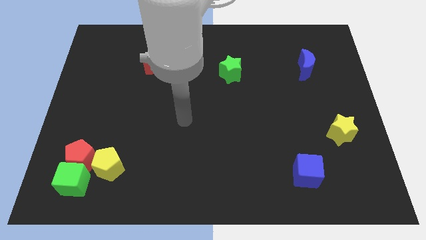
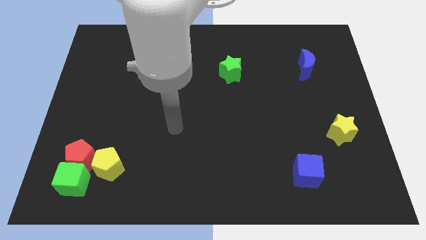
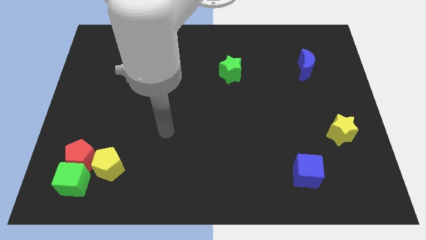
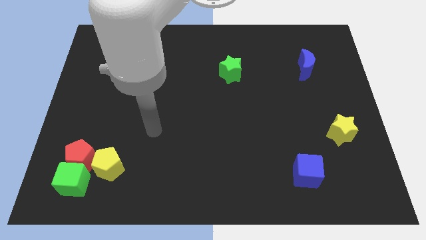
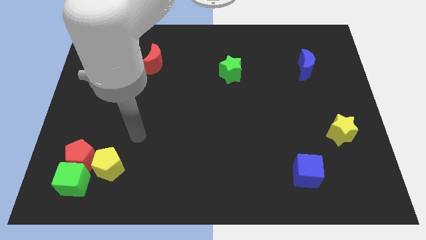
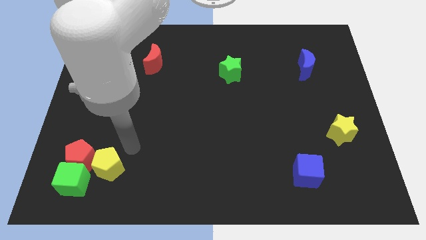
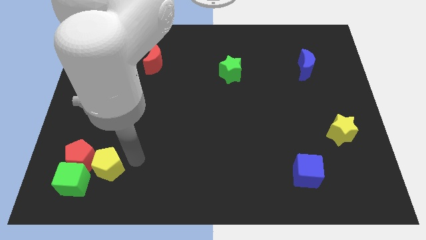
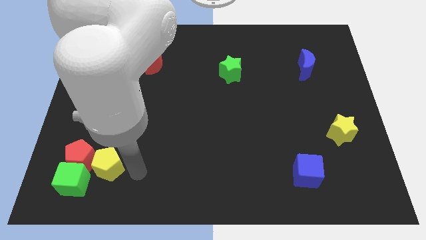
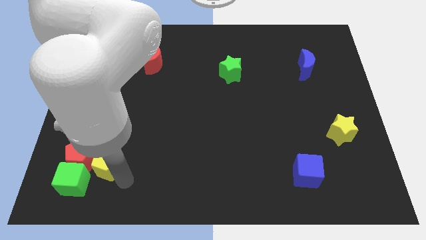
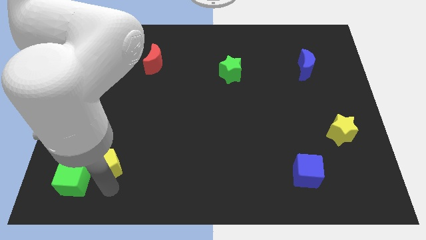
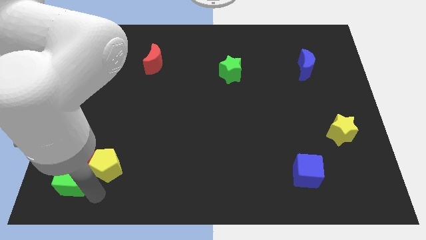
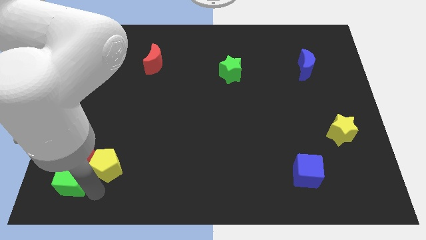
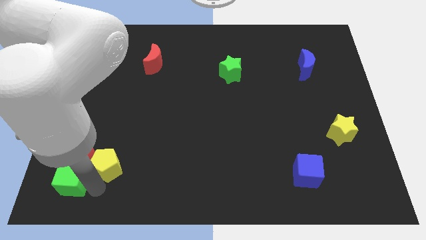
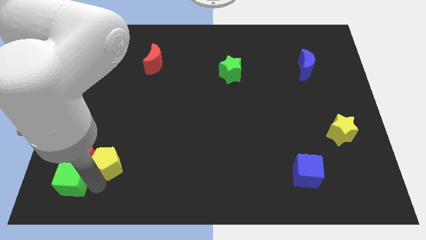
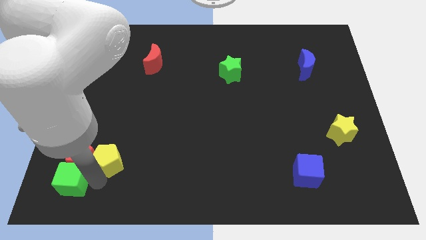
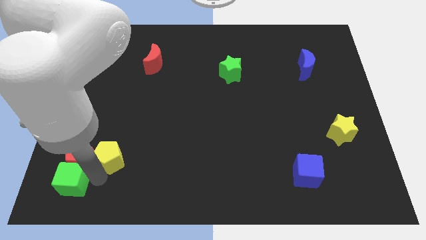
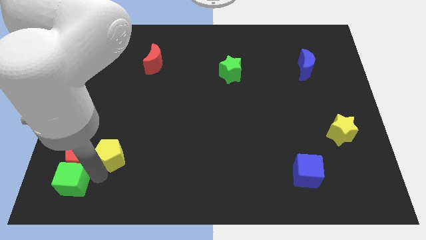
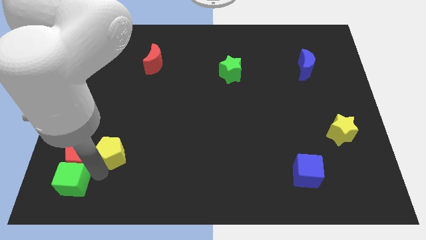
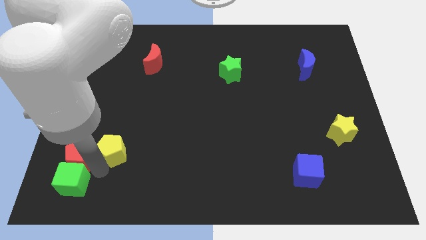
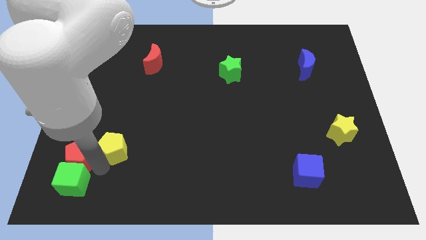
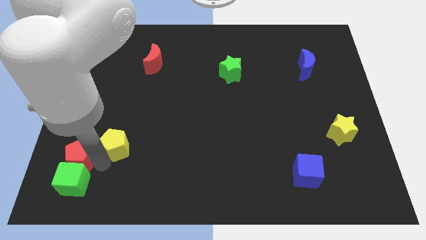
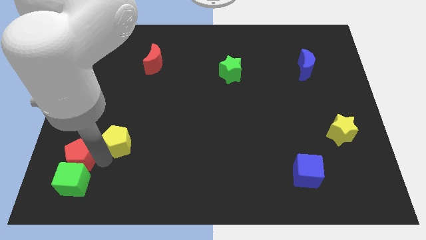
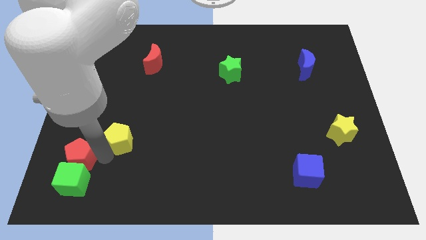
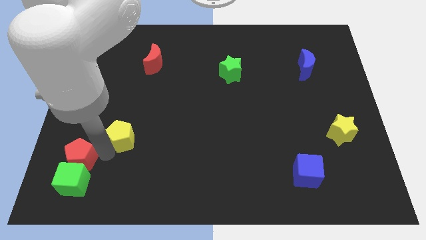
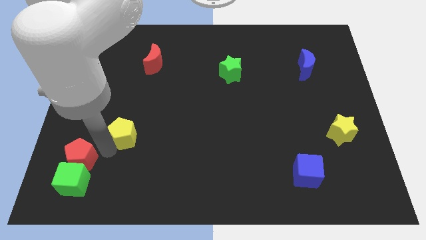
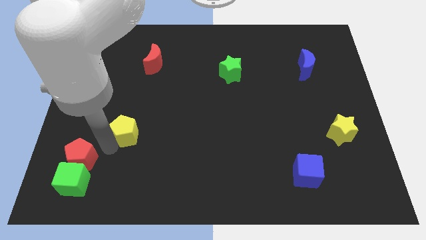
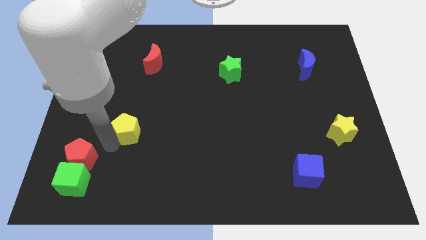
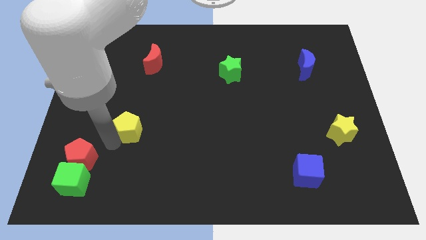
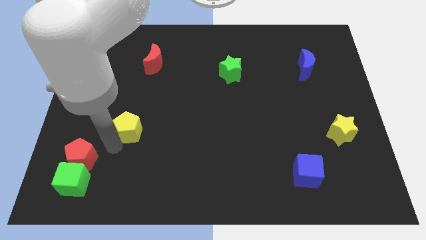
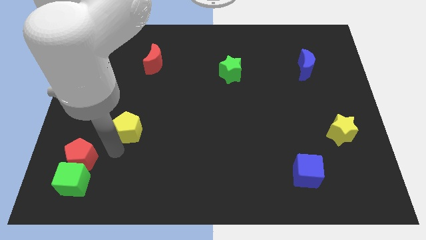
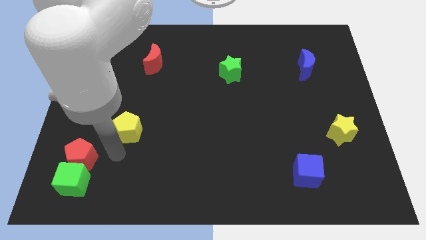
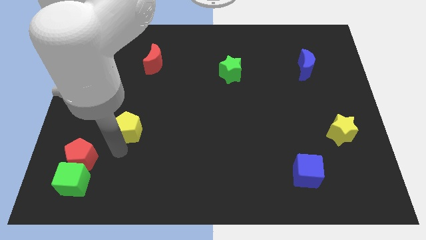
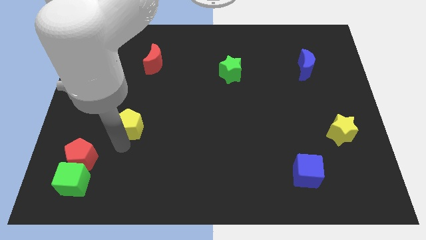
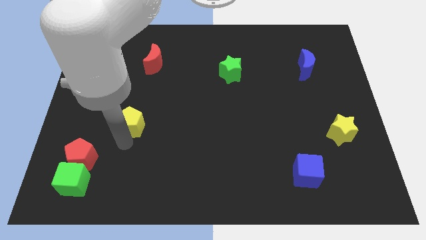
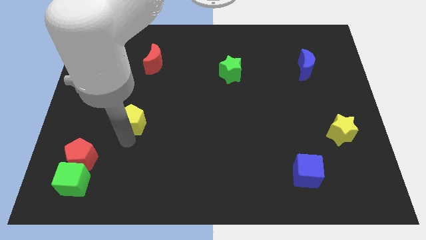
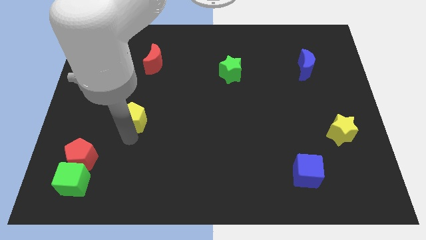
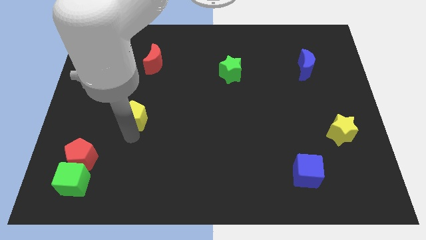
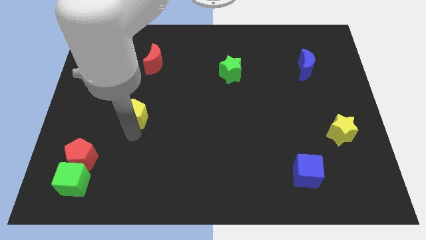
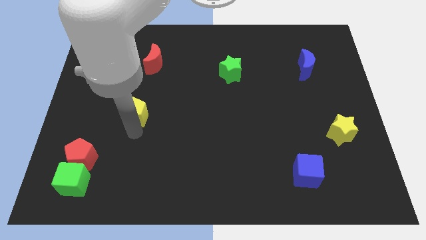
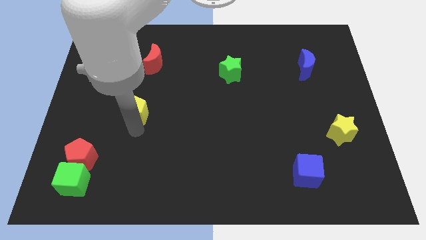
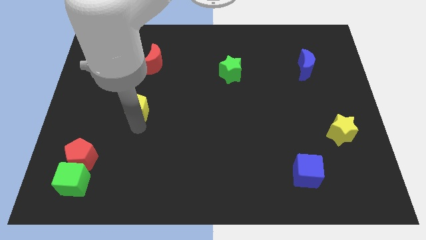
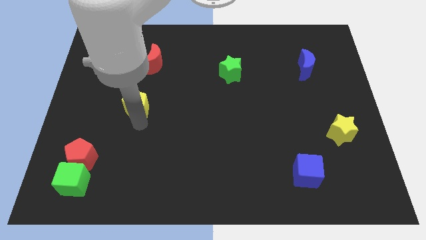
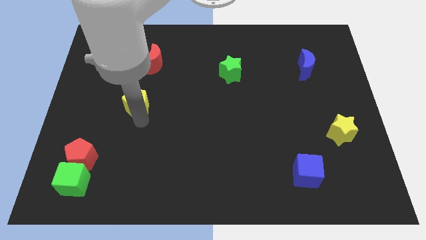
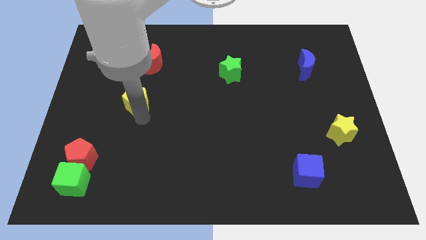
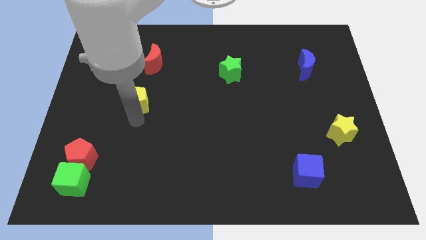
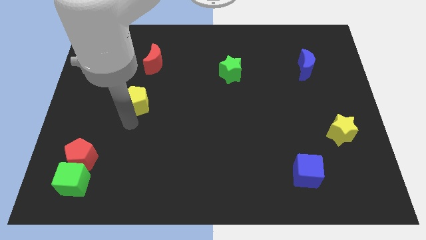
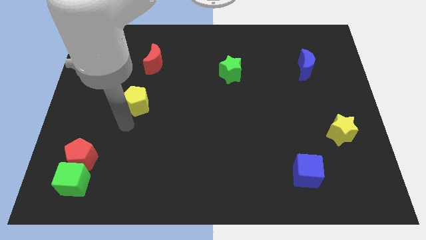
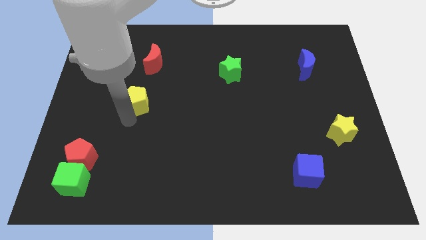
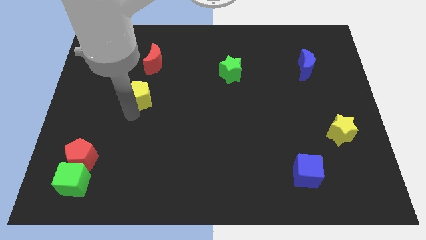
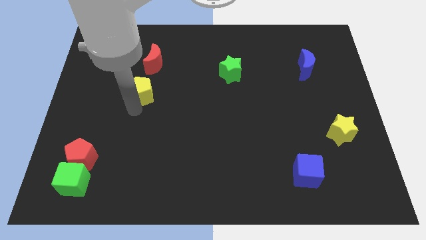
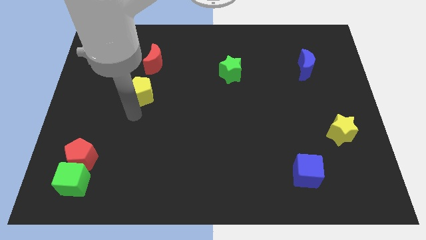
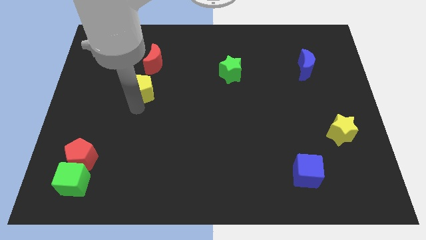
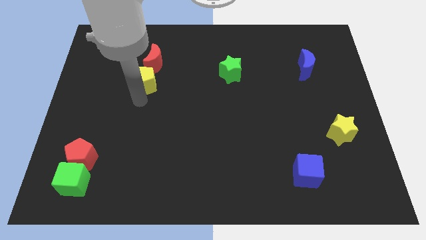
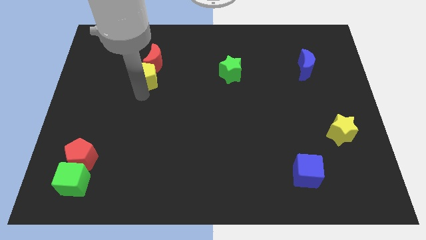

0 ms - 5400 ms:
move the yellow pentagon close to the red moon

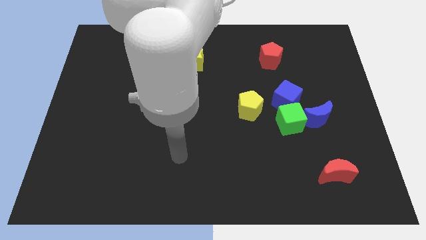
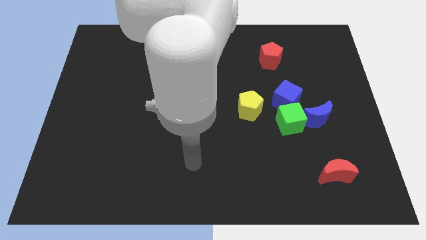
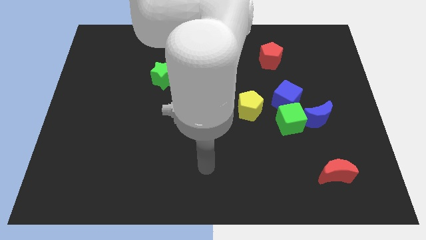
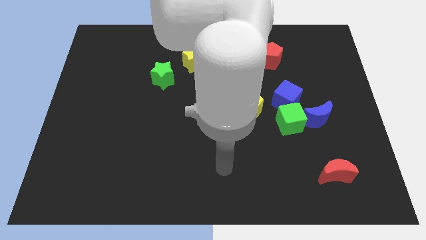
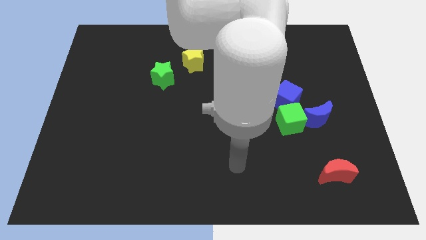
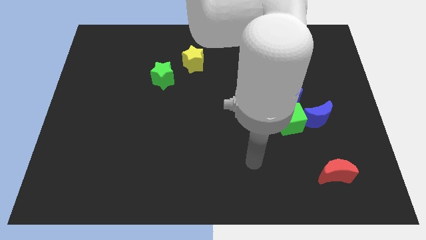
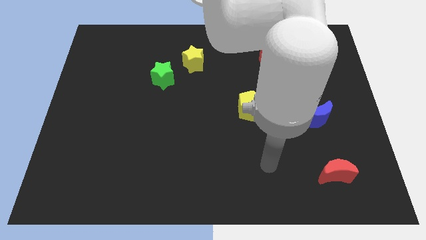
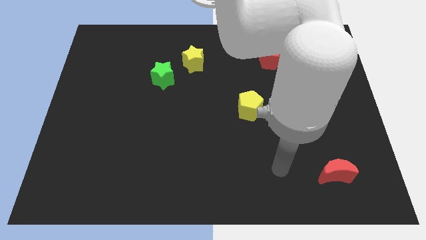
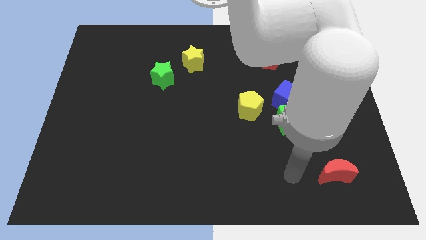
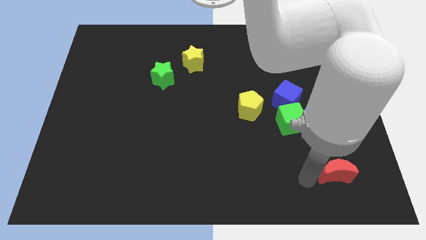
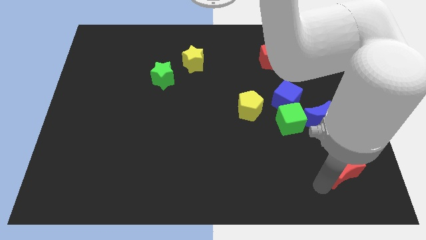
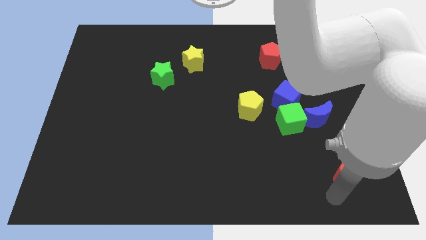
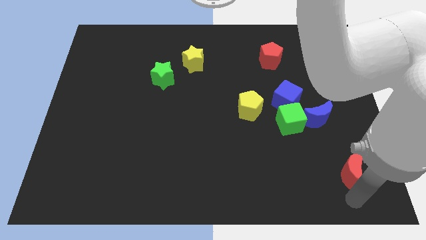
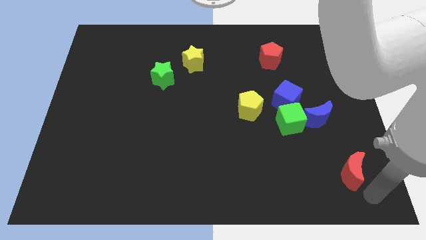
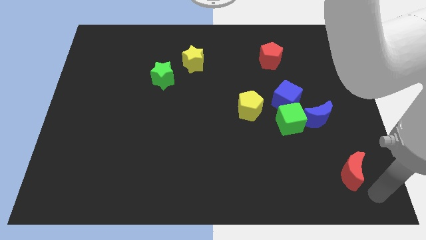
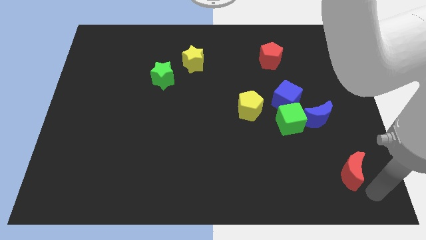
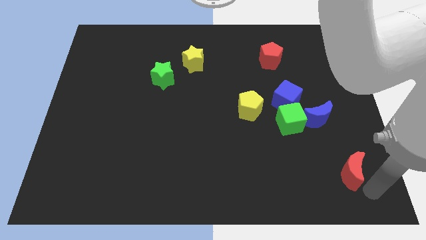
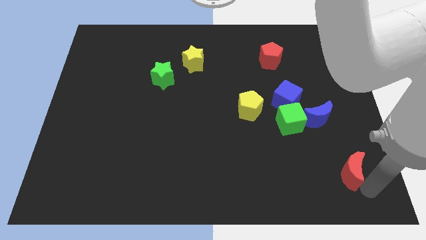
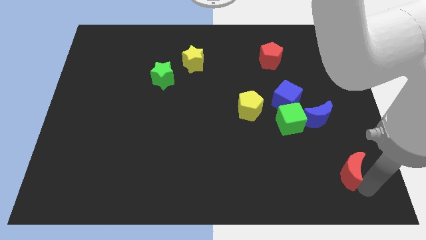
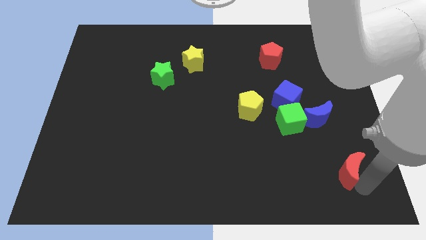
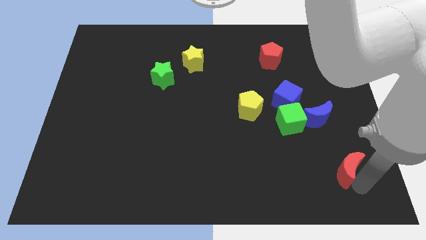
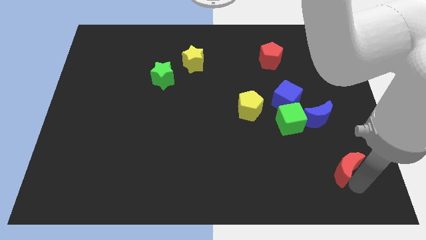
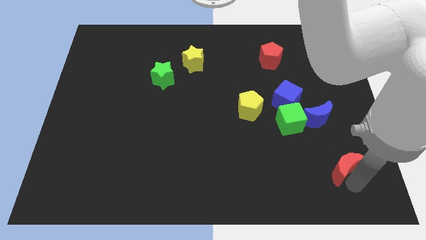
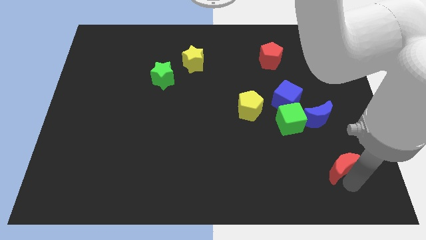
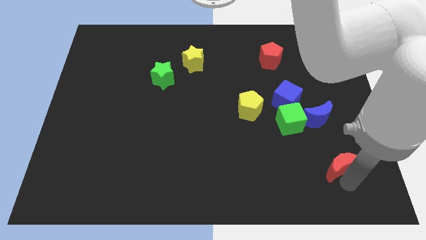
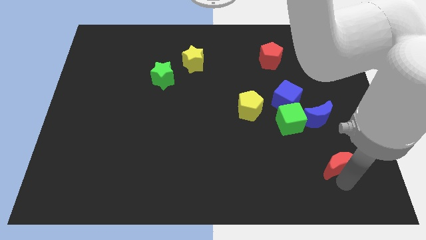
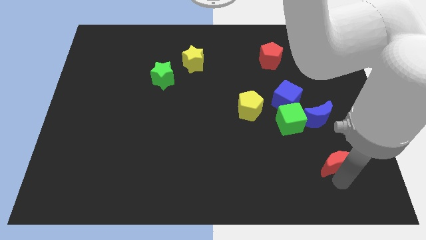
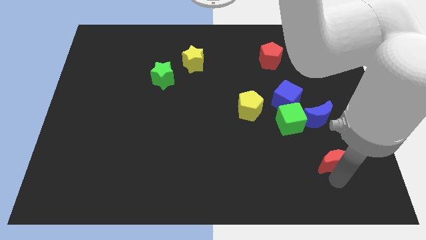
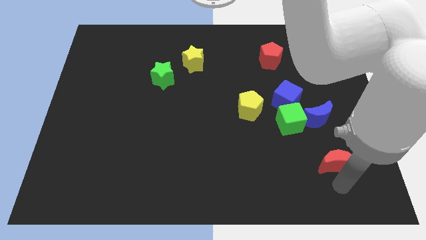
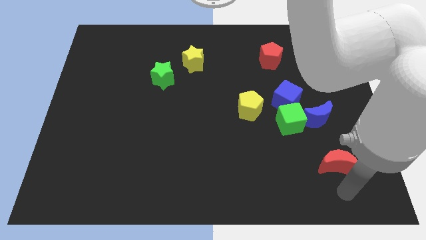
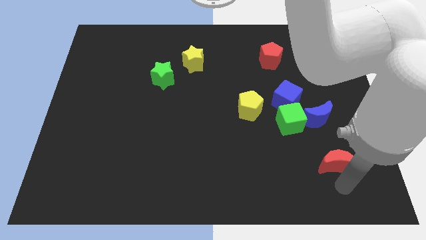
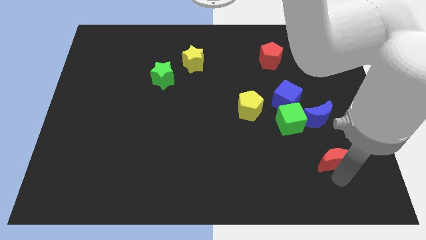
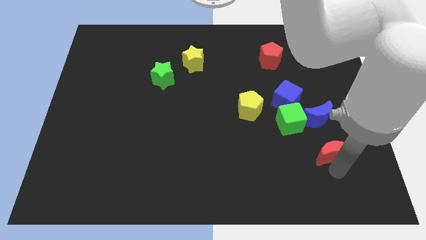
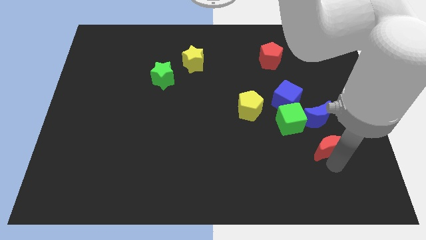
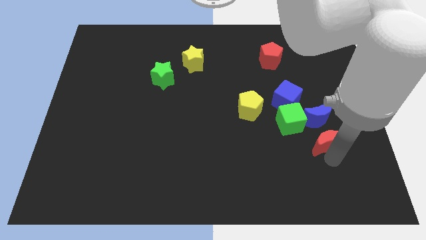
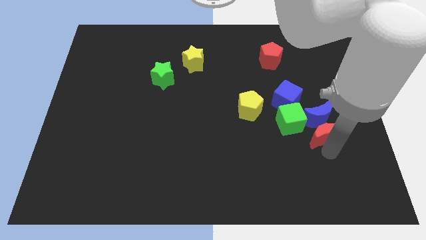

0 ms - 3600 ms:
put the red moon to the blue moon
